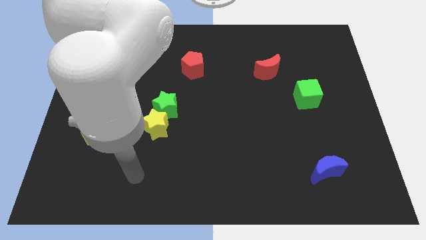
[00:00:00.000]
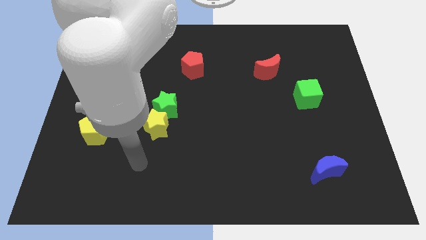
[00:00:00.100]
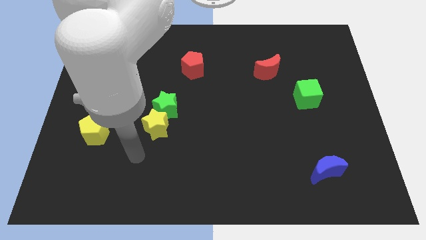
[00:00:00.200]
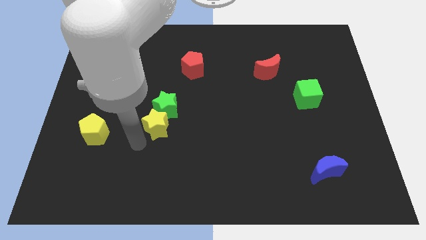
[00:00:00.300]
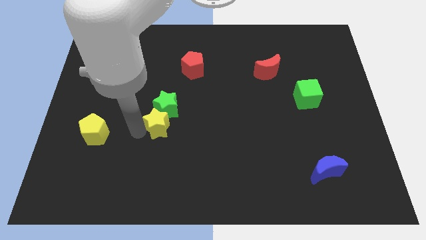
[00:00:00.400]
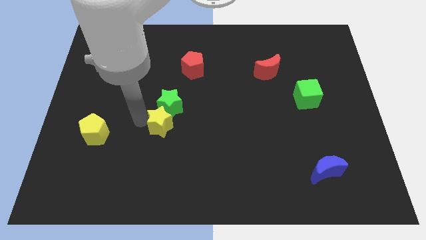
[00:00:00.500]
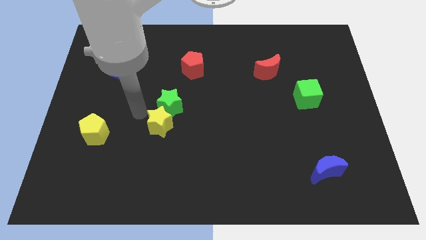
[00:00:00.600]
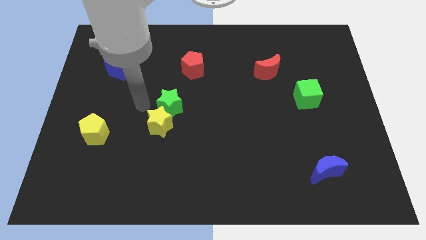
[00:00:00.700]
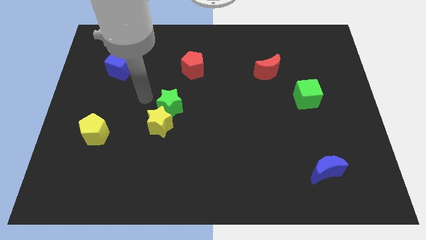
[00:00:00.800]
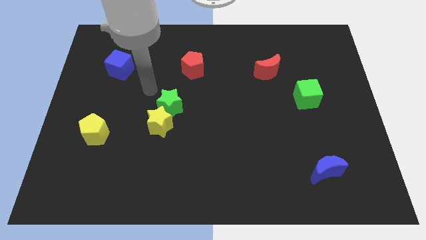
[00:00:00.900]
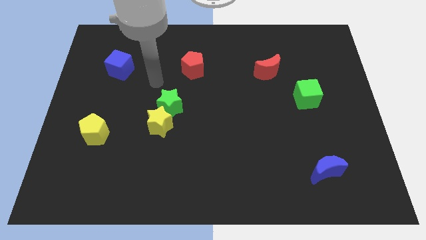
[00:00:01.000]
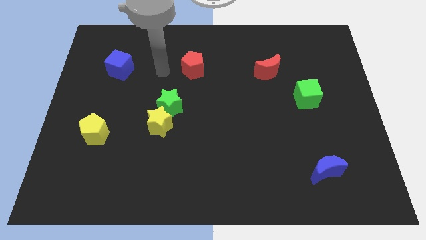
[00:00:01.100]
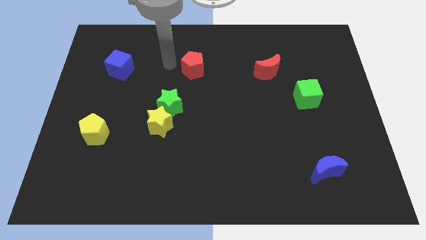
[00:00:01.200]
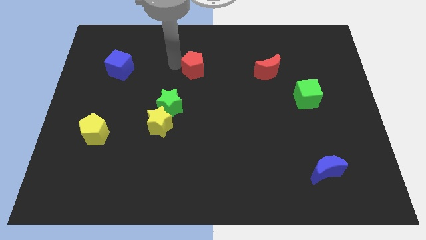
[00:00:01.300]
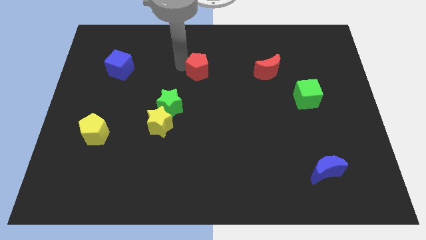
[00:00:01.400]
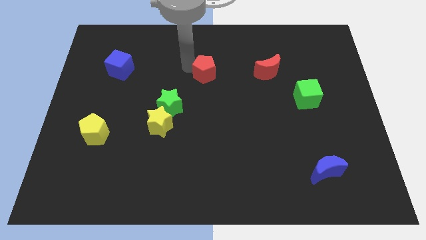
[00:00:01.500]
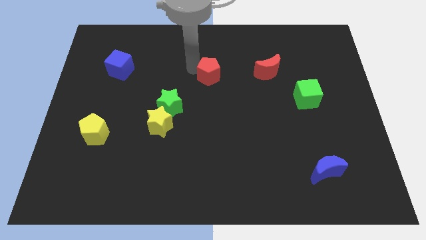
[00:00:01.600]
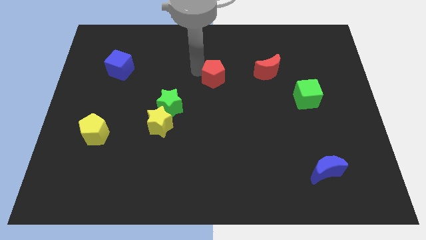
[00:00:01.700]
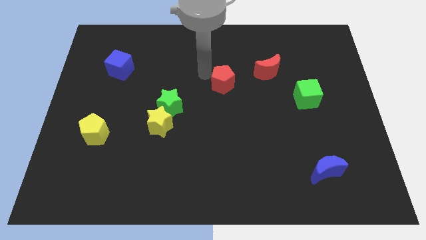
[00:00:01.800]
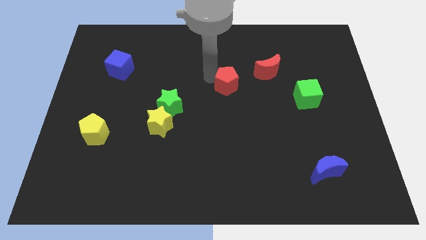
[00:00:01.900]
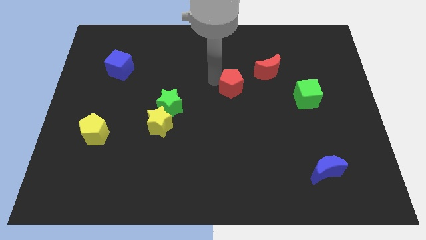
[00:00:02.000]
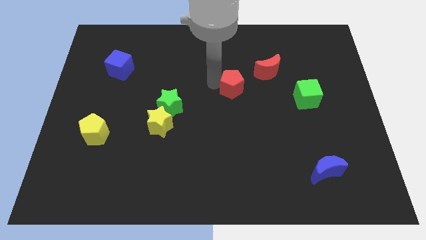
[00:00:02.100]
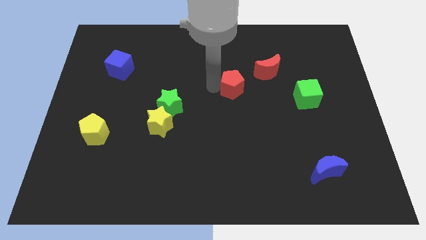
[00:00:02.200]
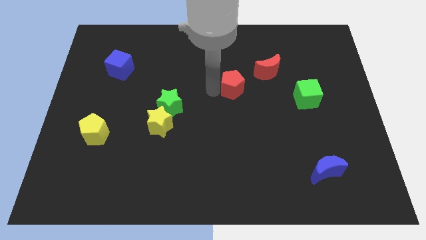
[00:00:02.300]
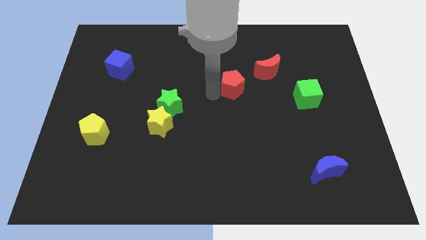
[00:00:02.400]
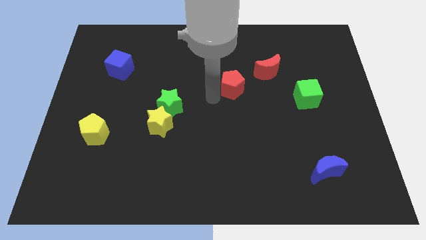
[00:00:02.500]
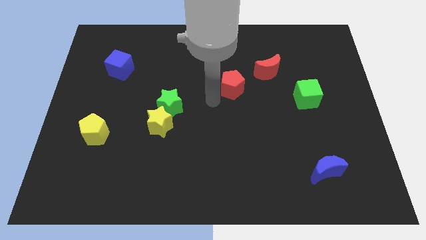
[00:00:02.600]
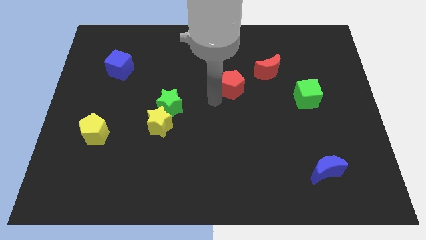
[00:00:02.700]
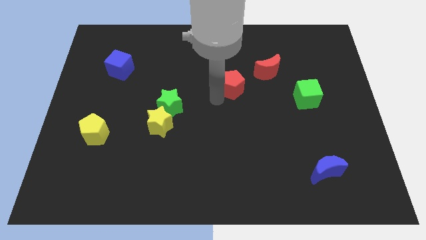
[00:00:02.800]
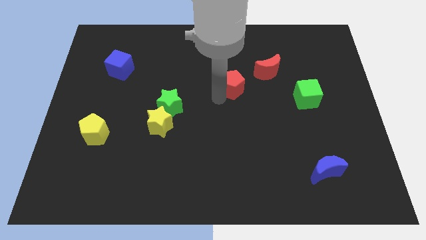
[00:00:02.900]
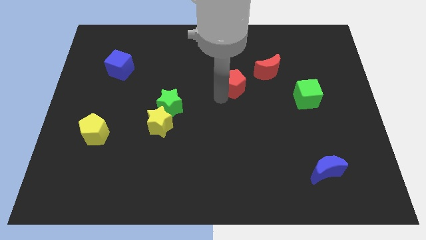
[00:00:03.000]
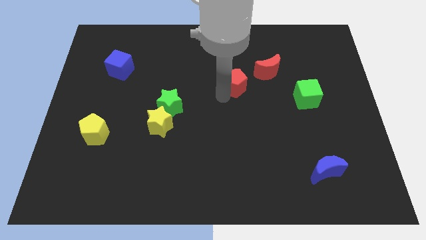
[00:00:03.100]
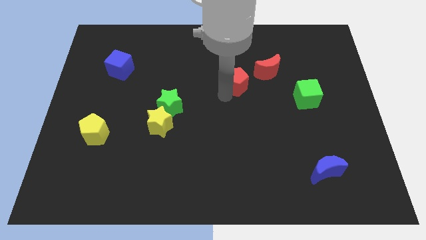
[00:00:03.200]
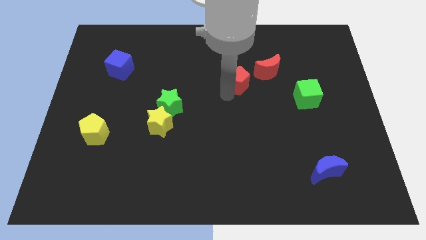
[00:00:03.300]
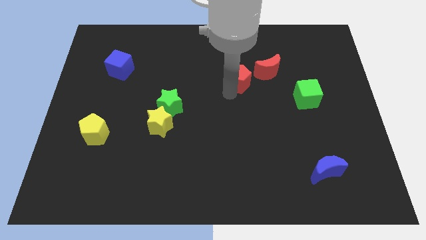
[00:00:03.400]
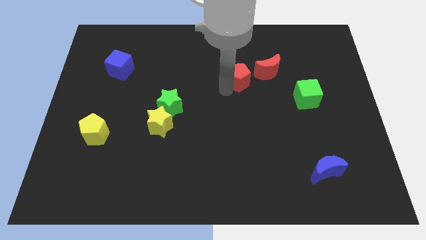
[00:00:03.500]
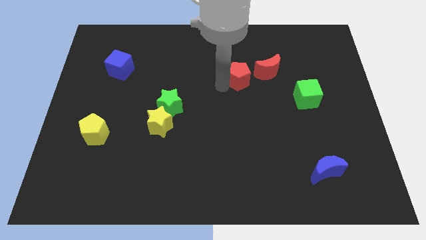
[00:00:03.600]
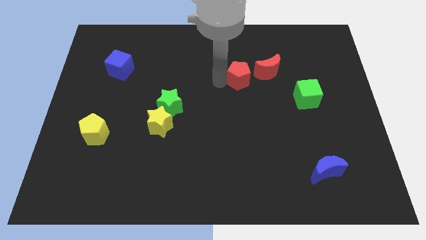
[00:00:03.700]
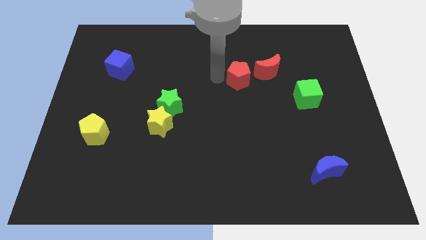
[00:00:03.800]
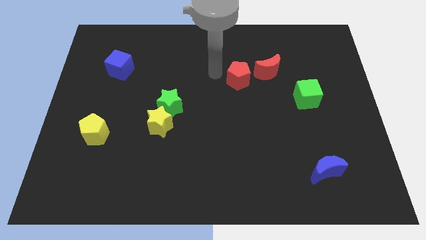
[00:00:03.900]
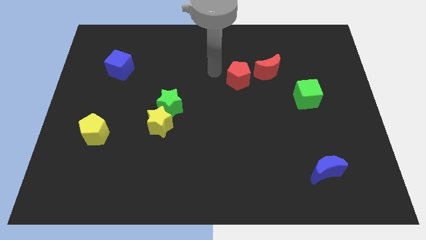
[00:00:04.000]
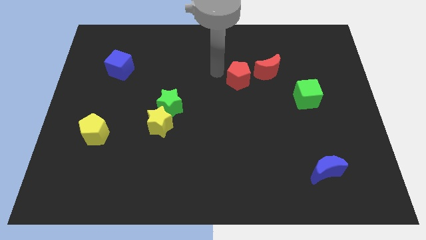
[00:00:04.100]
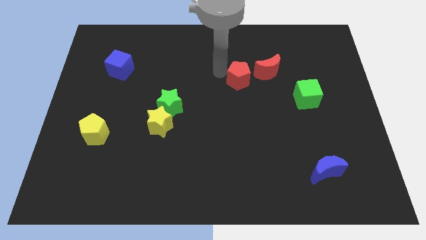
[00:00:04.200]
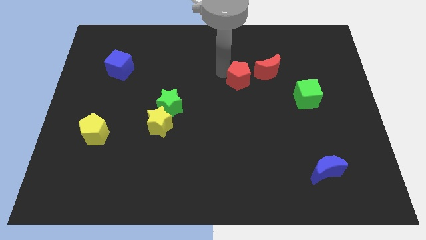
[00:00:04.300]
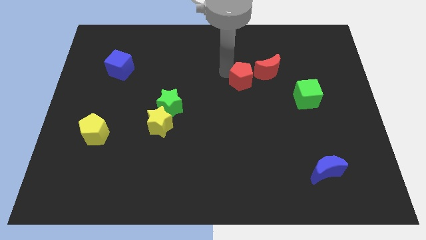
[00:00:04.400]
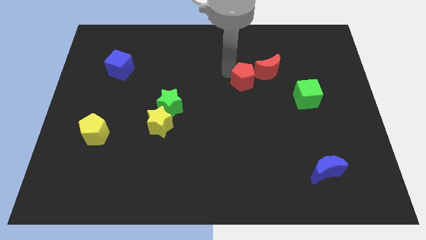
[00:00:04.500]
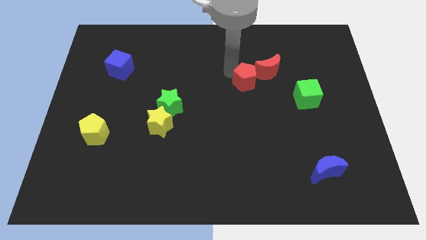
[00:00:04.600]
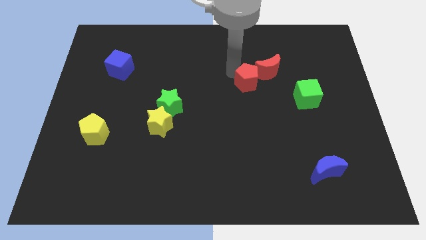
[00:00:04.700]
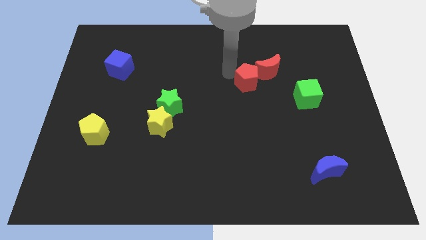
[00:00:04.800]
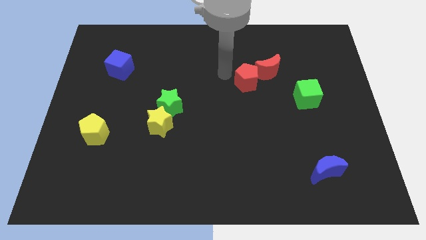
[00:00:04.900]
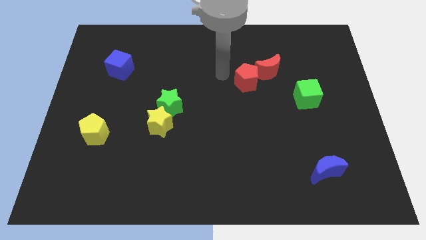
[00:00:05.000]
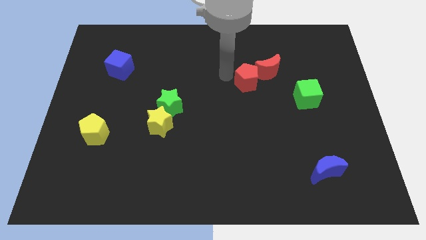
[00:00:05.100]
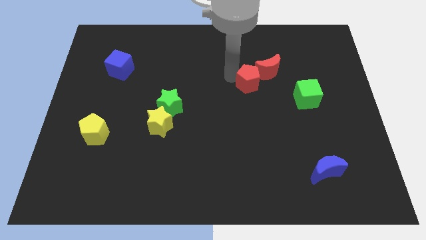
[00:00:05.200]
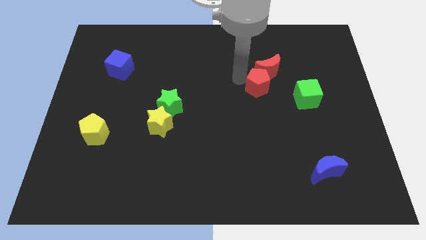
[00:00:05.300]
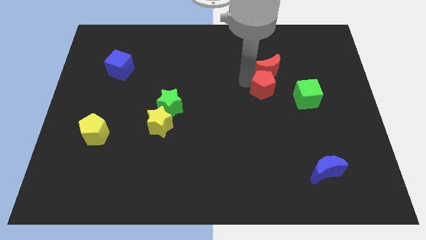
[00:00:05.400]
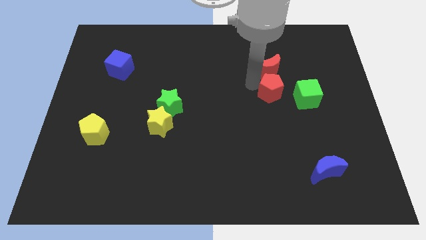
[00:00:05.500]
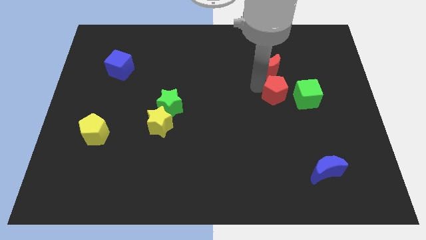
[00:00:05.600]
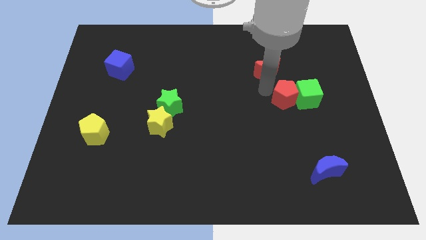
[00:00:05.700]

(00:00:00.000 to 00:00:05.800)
move the red pentagon to the green cube

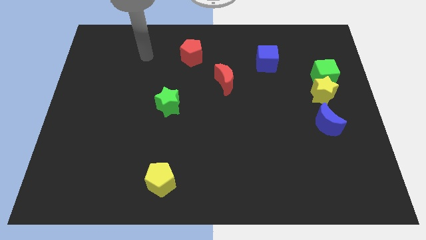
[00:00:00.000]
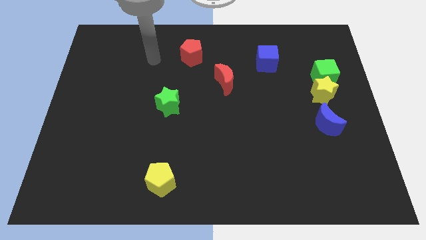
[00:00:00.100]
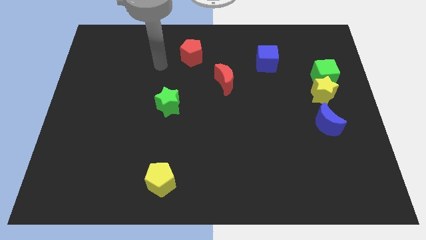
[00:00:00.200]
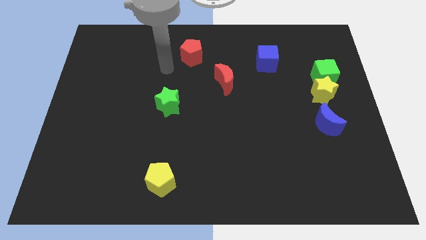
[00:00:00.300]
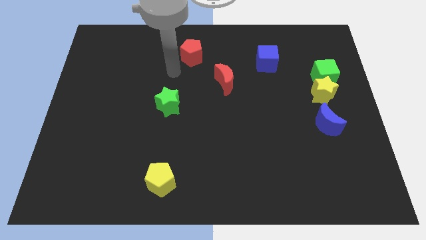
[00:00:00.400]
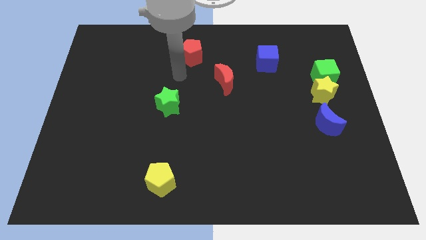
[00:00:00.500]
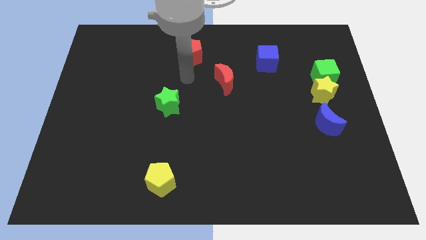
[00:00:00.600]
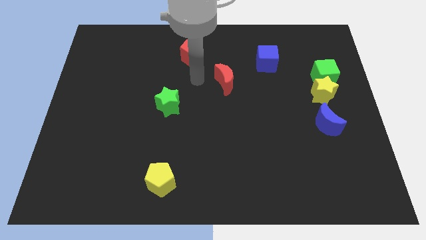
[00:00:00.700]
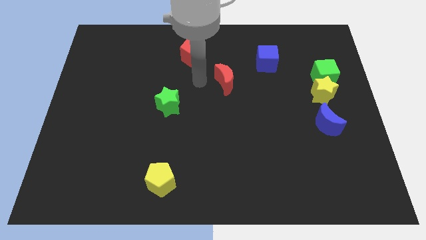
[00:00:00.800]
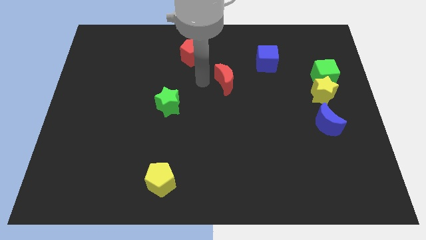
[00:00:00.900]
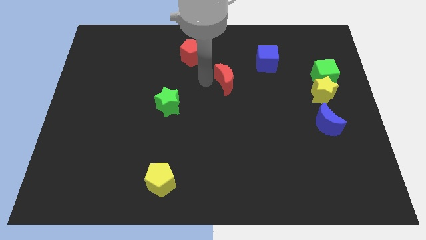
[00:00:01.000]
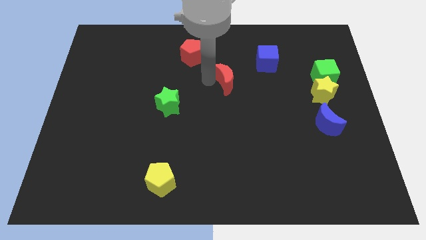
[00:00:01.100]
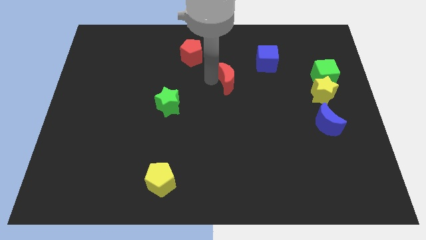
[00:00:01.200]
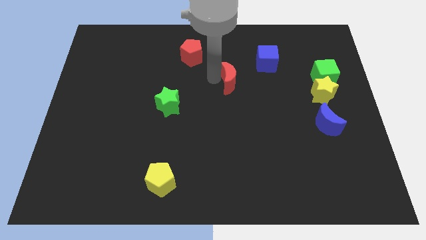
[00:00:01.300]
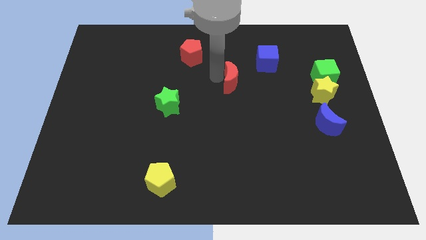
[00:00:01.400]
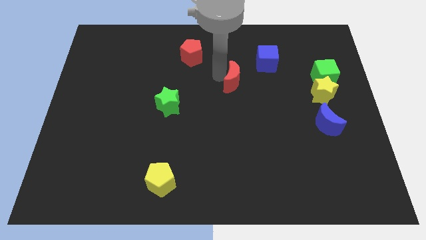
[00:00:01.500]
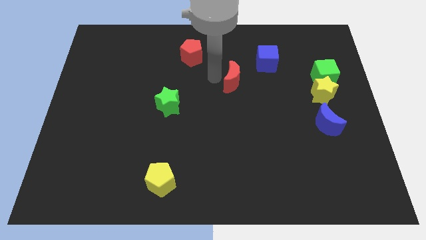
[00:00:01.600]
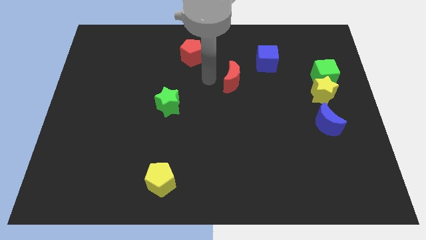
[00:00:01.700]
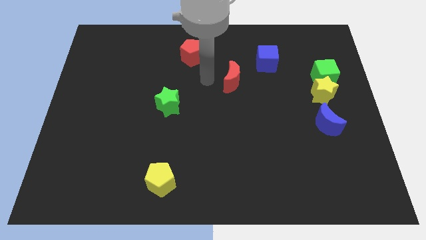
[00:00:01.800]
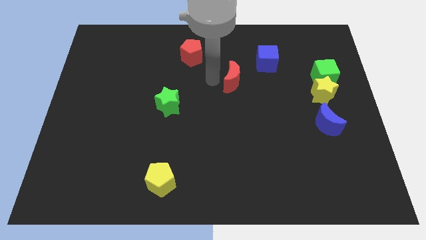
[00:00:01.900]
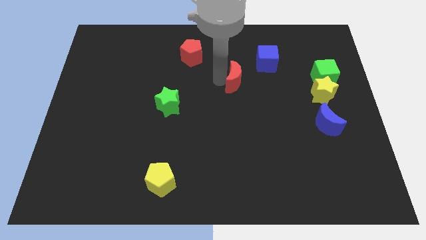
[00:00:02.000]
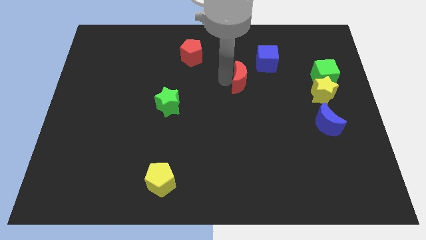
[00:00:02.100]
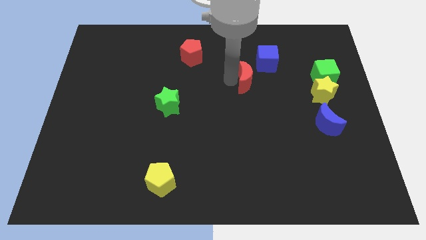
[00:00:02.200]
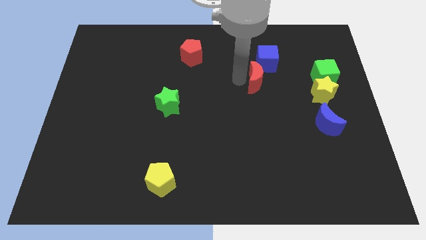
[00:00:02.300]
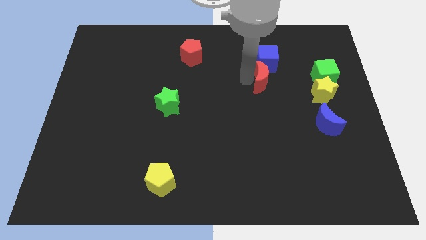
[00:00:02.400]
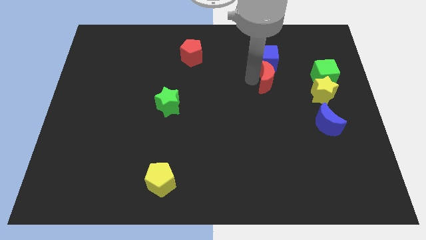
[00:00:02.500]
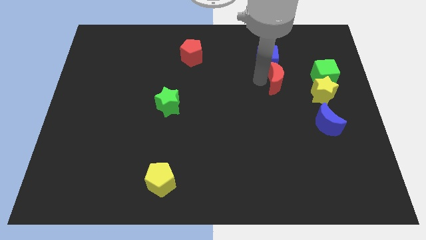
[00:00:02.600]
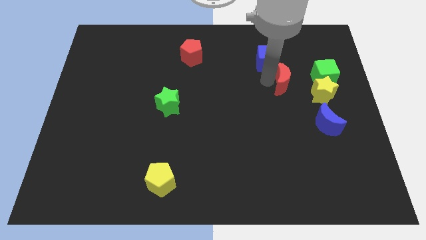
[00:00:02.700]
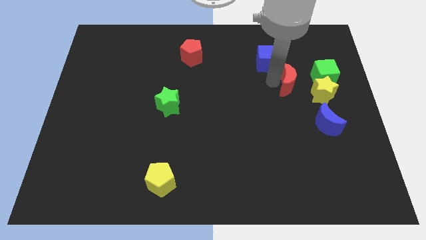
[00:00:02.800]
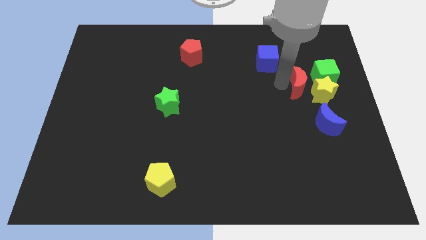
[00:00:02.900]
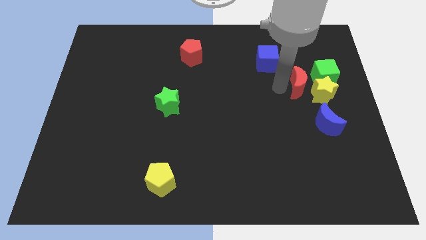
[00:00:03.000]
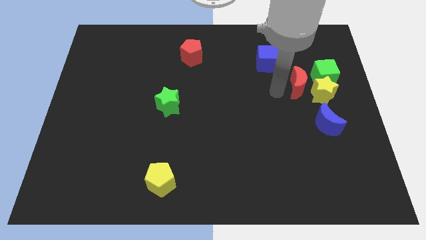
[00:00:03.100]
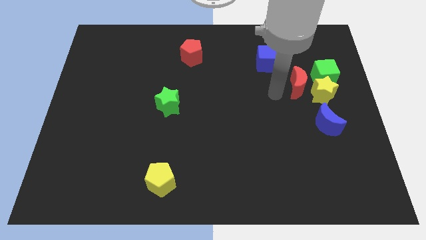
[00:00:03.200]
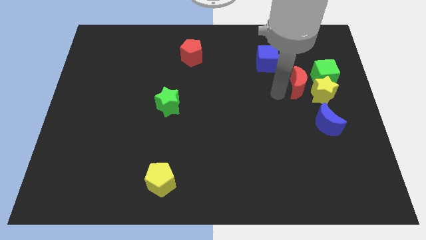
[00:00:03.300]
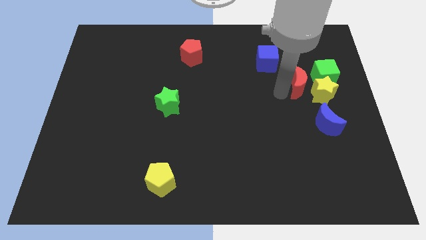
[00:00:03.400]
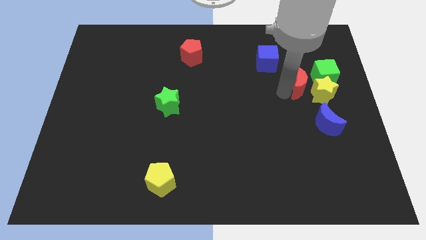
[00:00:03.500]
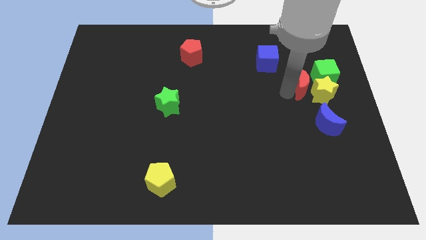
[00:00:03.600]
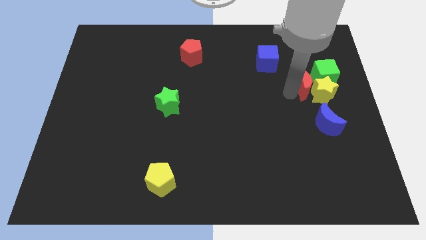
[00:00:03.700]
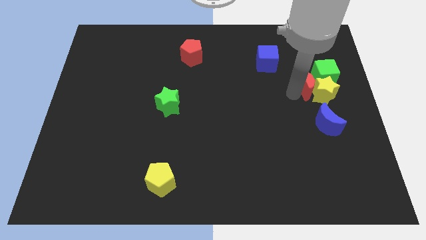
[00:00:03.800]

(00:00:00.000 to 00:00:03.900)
move the red moon to the green cube
